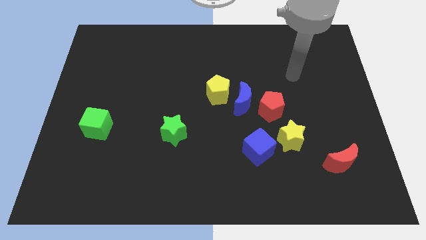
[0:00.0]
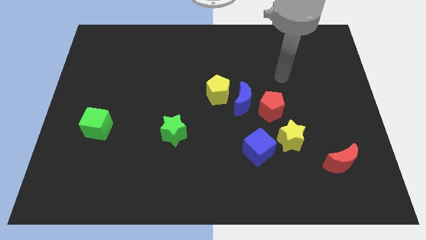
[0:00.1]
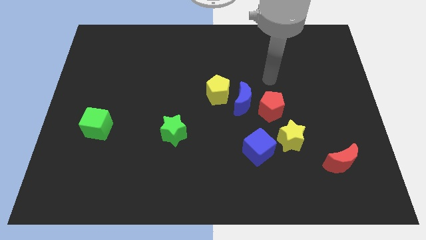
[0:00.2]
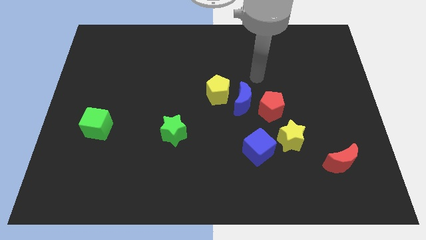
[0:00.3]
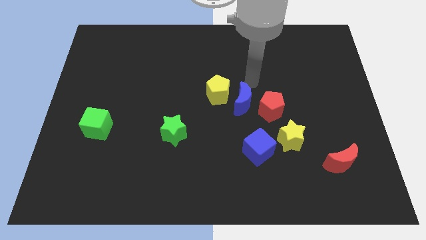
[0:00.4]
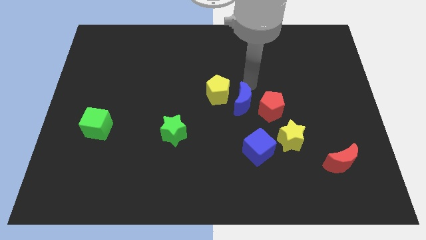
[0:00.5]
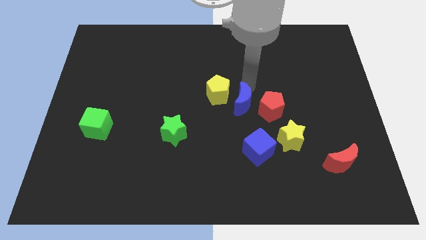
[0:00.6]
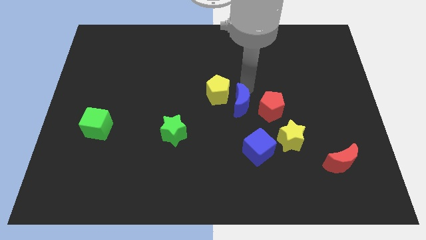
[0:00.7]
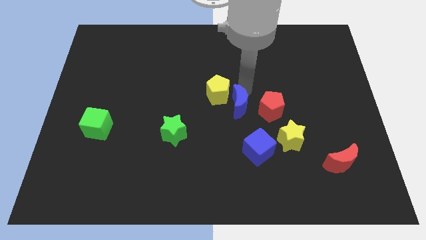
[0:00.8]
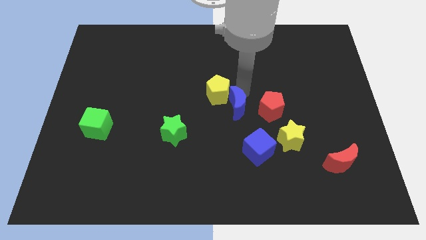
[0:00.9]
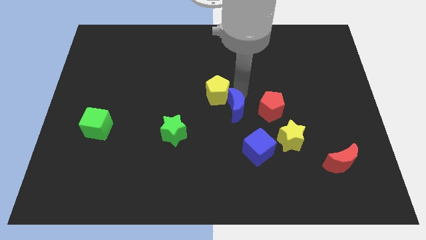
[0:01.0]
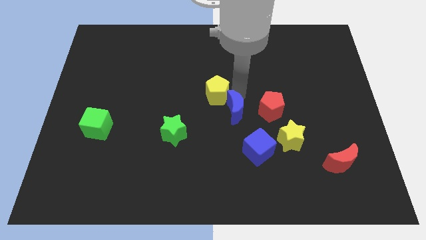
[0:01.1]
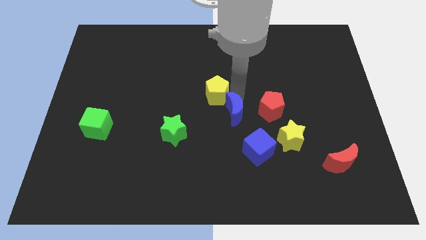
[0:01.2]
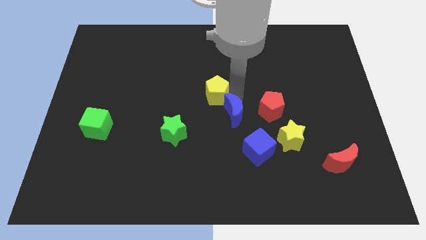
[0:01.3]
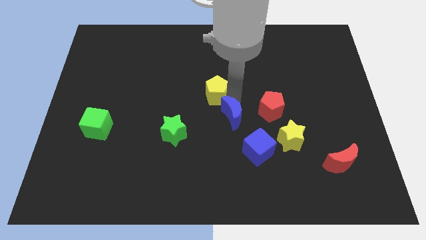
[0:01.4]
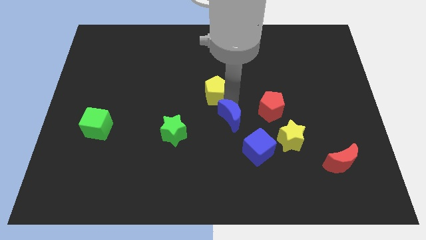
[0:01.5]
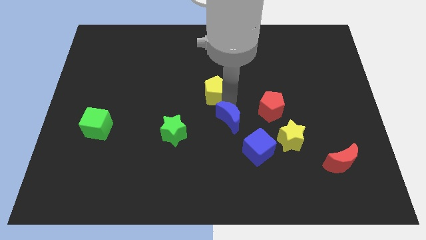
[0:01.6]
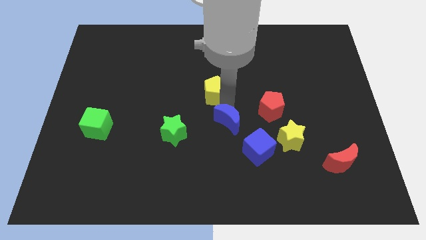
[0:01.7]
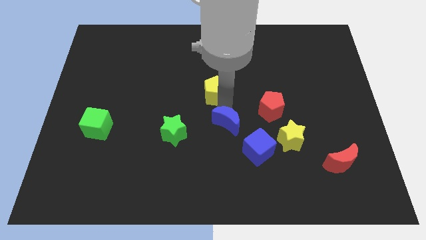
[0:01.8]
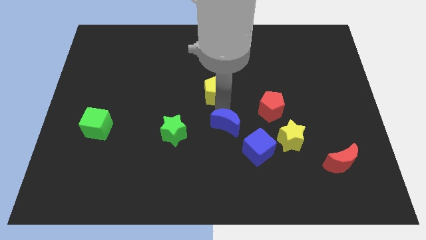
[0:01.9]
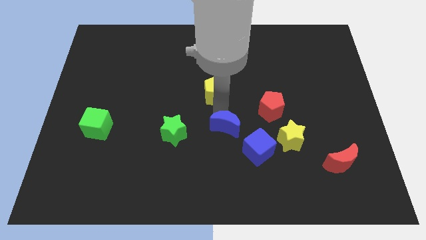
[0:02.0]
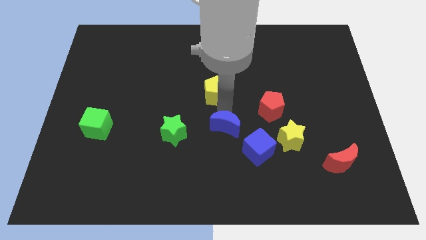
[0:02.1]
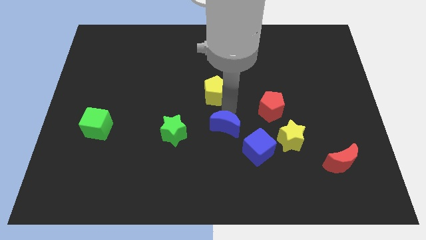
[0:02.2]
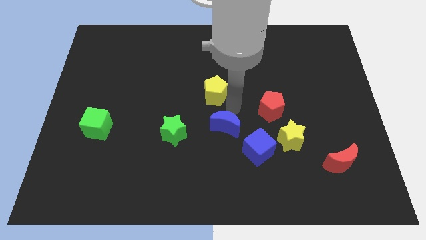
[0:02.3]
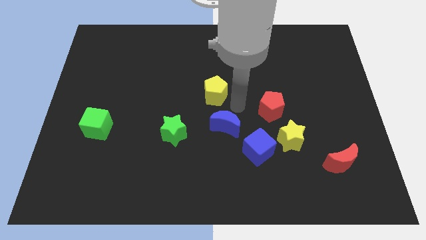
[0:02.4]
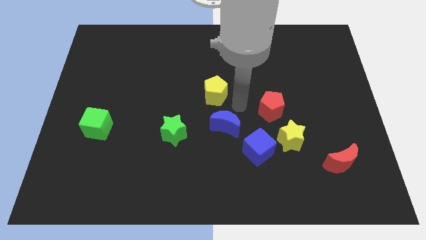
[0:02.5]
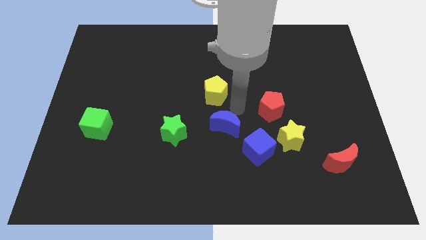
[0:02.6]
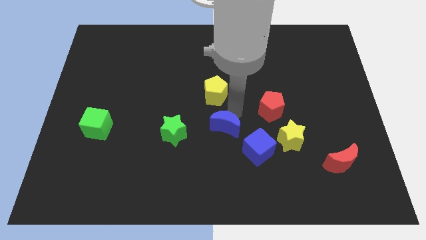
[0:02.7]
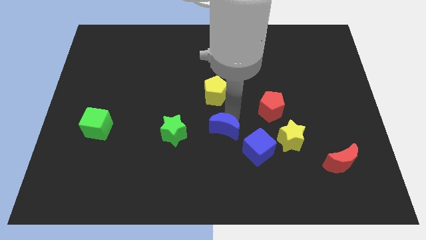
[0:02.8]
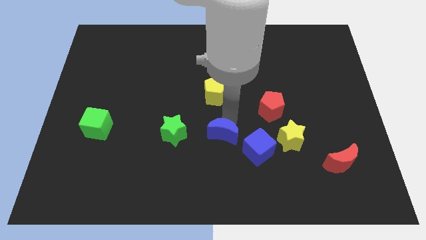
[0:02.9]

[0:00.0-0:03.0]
separate the blue moon from the red pentagon and yellow pentagon

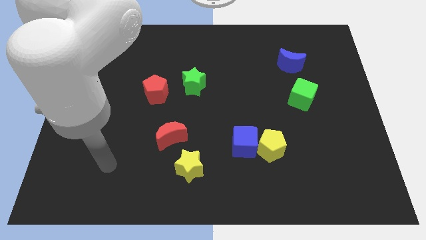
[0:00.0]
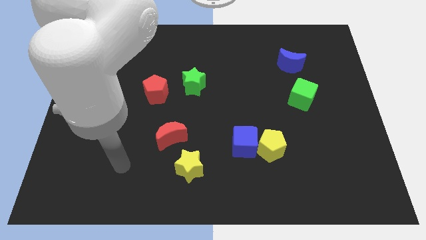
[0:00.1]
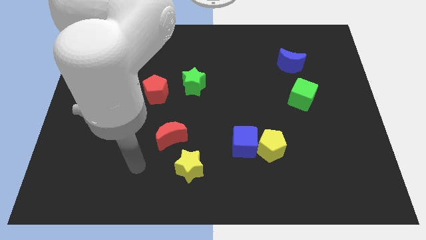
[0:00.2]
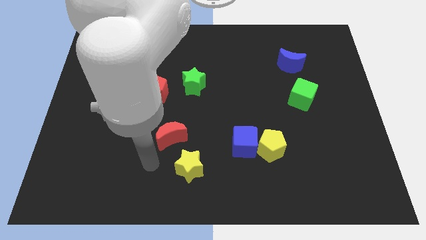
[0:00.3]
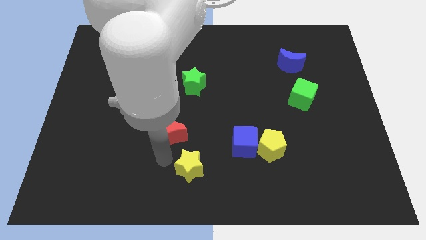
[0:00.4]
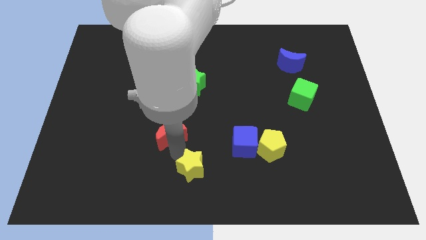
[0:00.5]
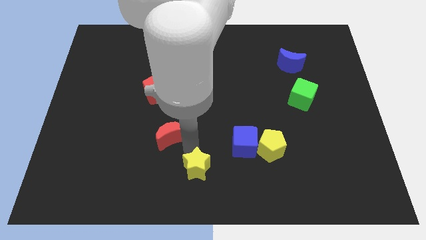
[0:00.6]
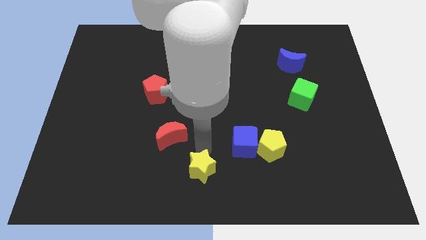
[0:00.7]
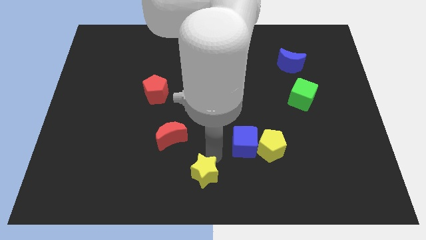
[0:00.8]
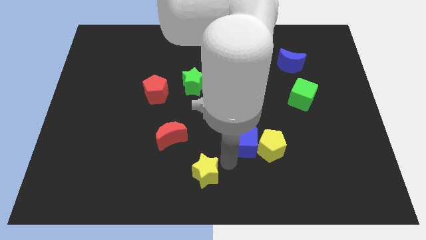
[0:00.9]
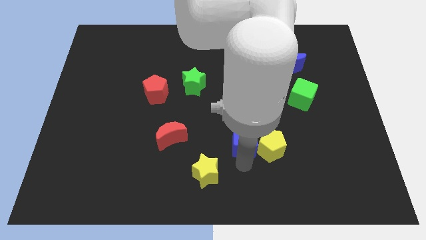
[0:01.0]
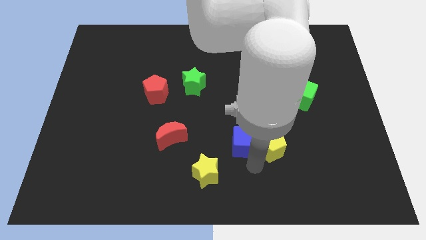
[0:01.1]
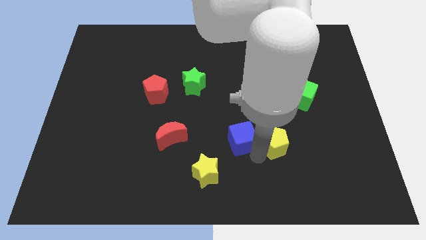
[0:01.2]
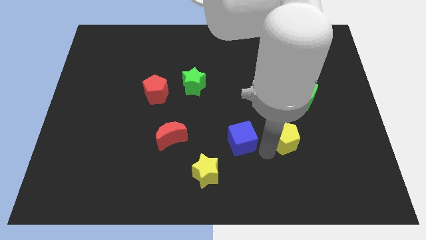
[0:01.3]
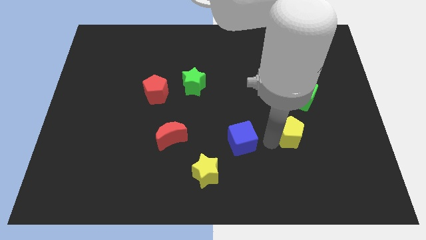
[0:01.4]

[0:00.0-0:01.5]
separate the blue cube from the yellow pentagon

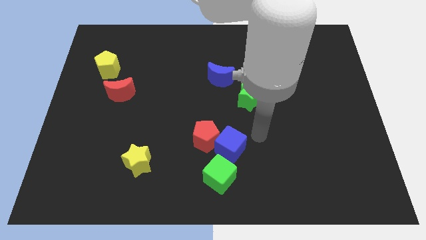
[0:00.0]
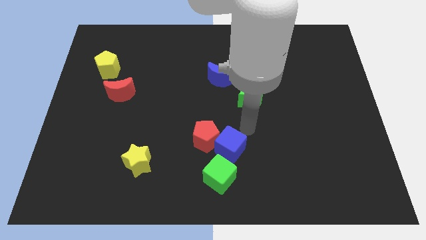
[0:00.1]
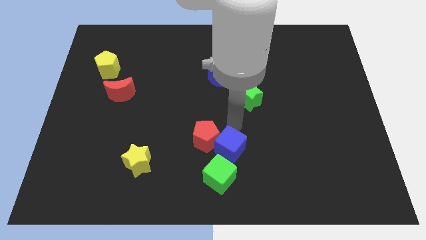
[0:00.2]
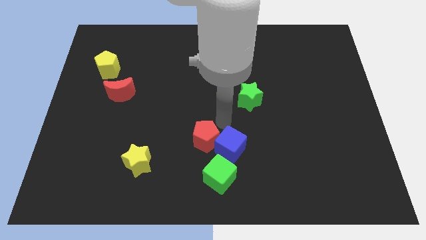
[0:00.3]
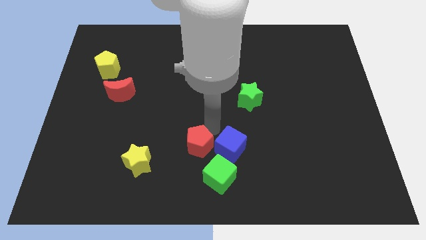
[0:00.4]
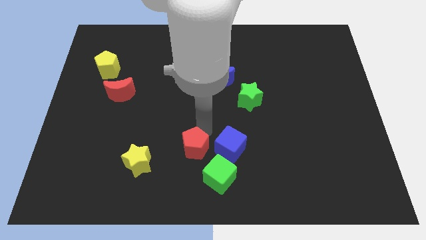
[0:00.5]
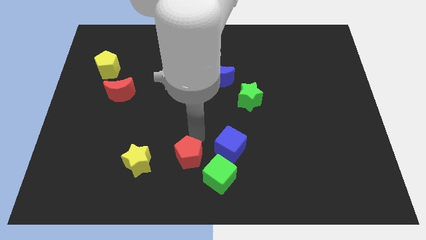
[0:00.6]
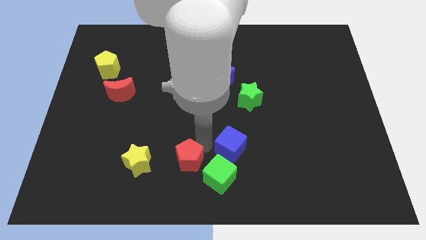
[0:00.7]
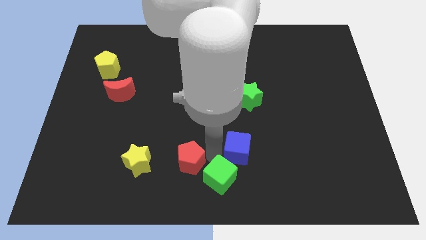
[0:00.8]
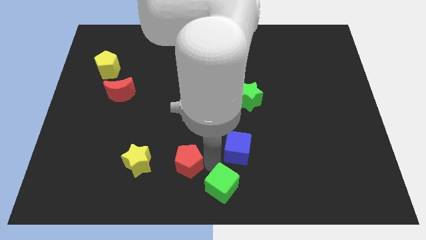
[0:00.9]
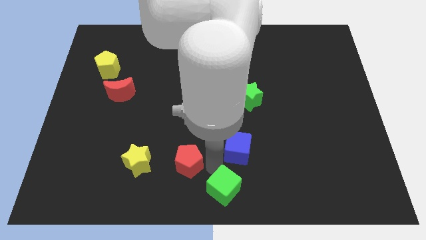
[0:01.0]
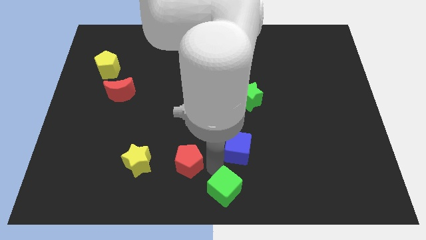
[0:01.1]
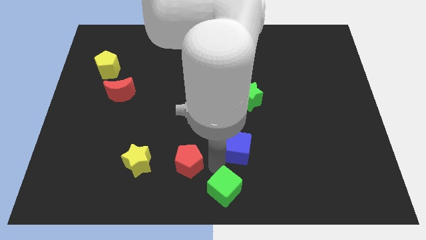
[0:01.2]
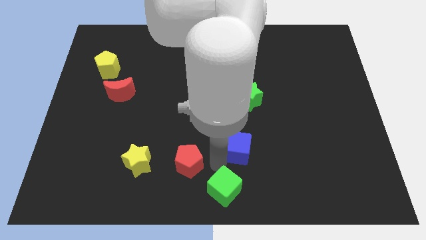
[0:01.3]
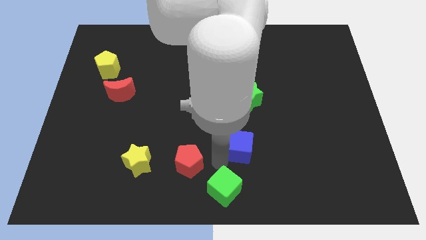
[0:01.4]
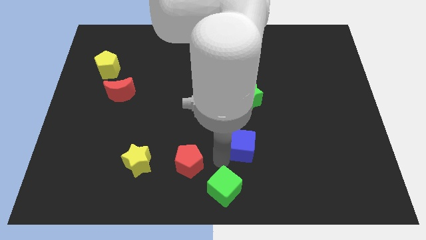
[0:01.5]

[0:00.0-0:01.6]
separate the blue cube from the red pentagon and green cube

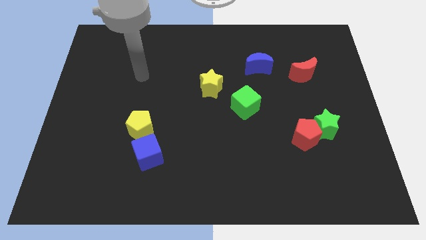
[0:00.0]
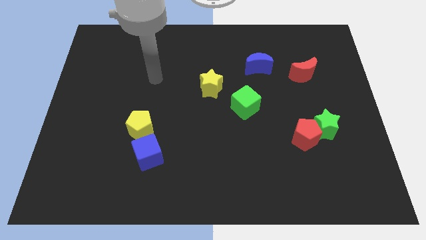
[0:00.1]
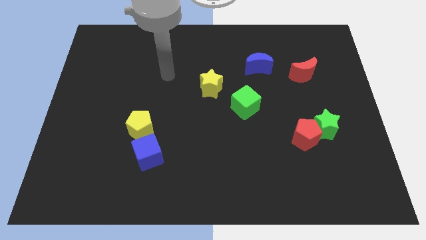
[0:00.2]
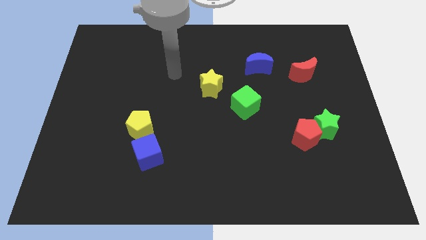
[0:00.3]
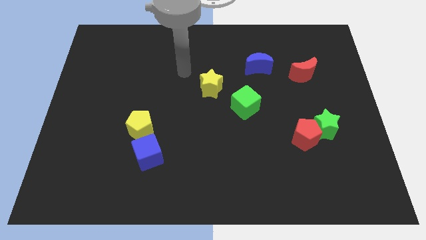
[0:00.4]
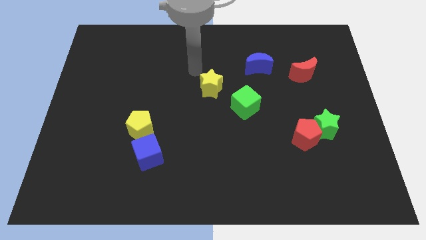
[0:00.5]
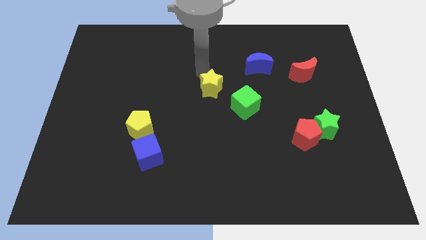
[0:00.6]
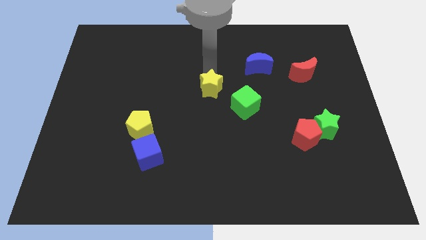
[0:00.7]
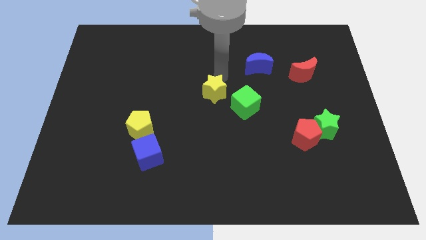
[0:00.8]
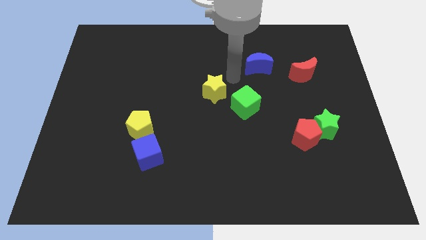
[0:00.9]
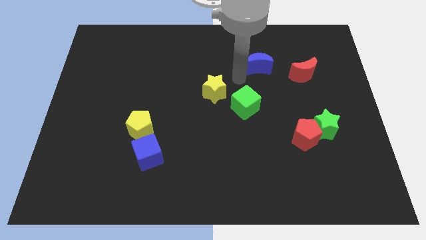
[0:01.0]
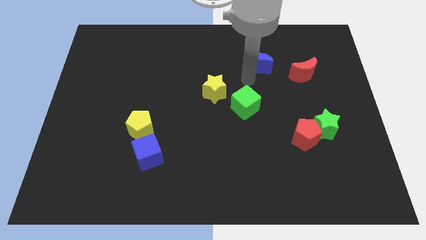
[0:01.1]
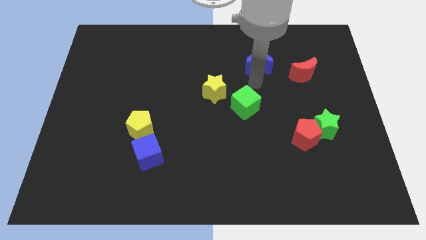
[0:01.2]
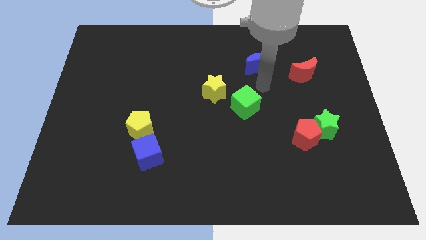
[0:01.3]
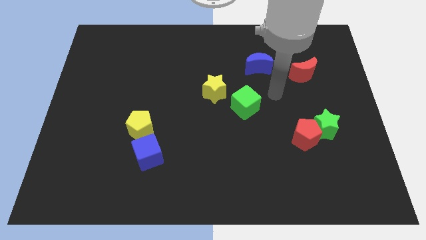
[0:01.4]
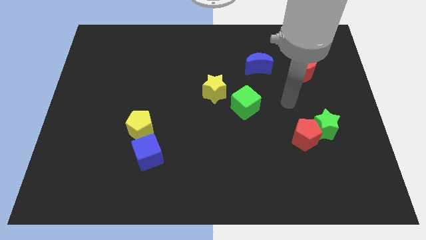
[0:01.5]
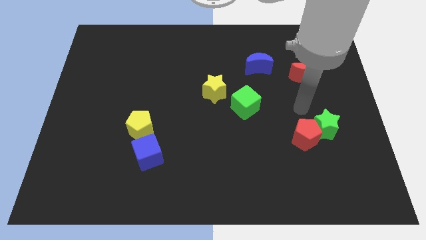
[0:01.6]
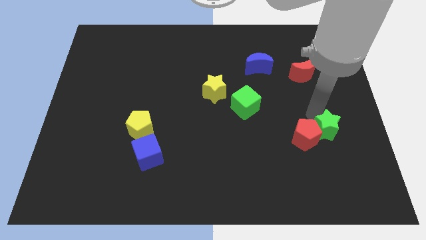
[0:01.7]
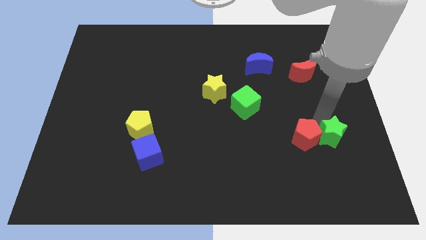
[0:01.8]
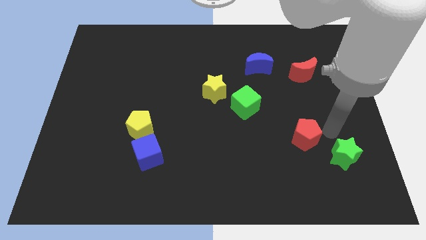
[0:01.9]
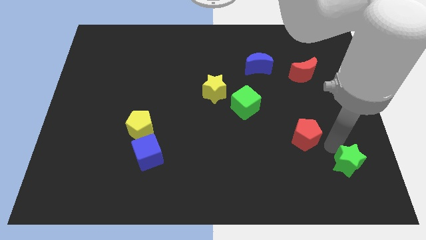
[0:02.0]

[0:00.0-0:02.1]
pull the red pentagon apart from the green star

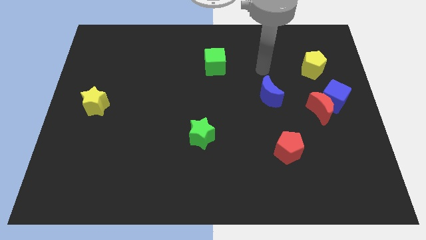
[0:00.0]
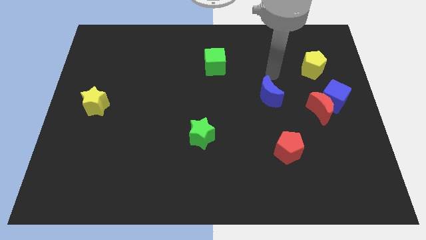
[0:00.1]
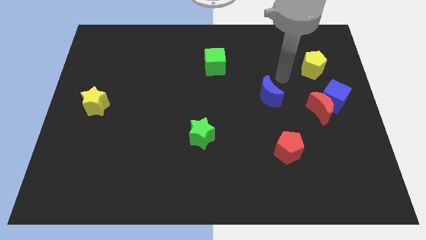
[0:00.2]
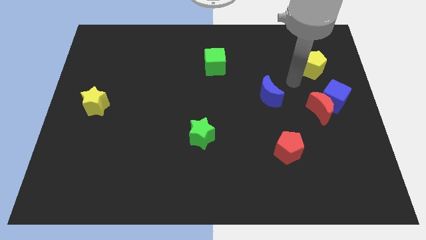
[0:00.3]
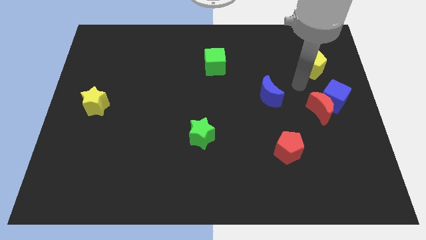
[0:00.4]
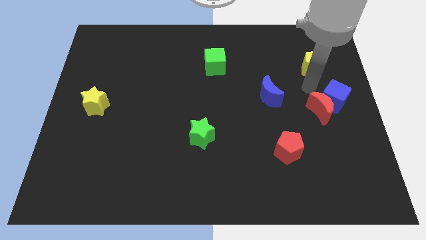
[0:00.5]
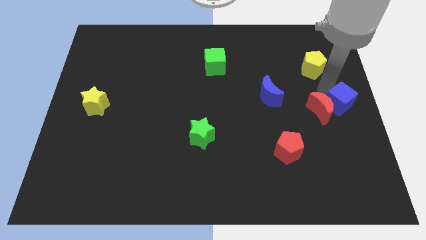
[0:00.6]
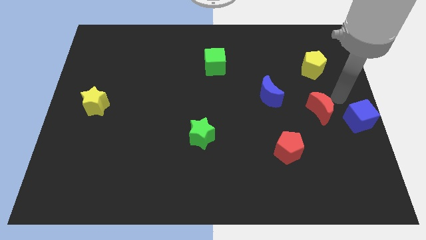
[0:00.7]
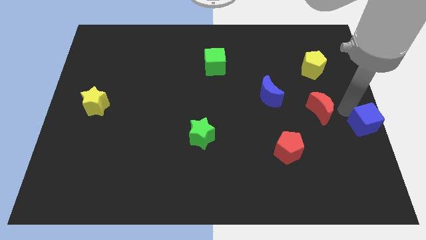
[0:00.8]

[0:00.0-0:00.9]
pull the red moon apart from the blue cube

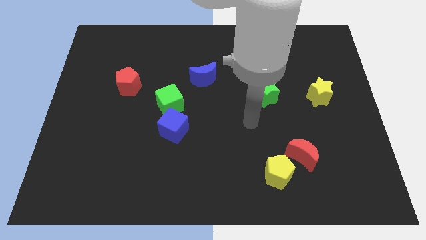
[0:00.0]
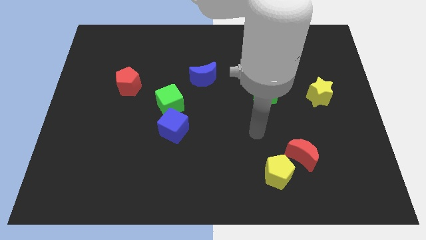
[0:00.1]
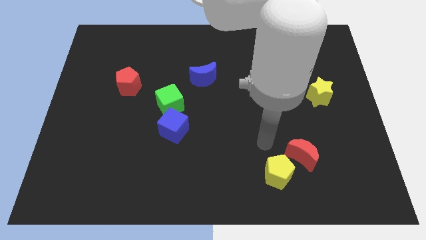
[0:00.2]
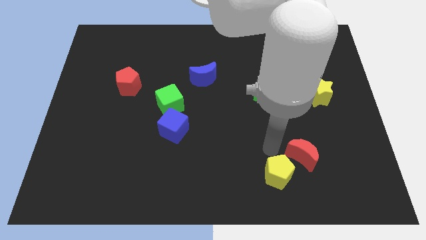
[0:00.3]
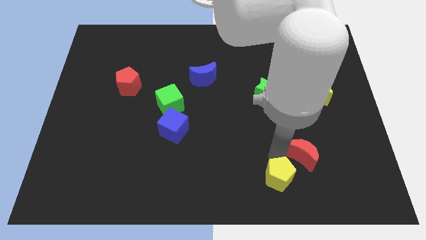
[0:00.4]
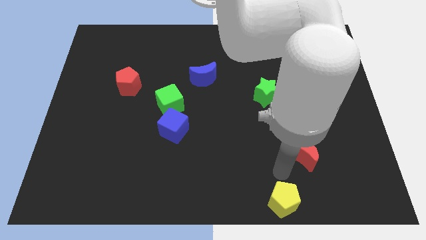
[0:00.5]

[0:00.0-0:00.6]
move the red moon away from the yellow pentagon
